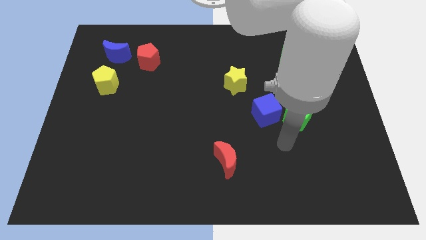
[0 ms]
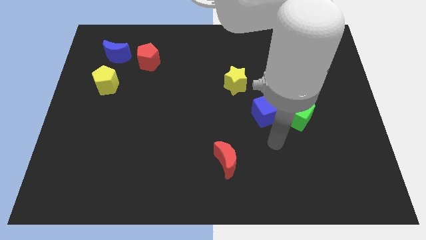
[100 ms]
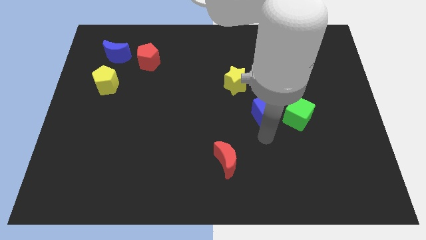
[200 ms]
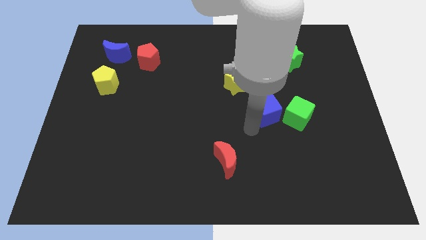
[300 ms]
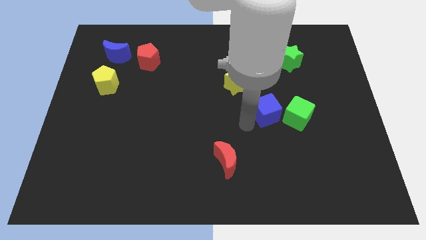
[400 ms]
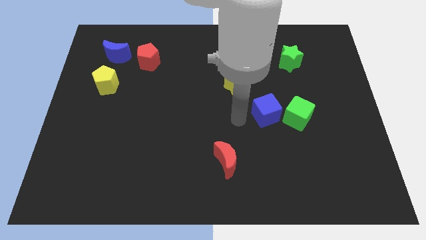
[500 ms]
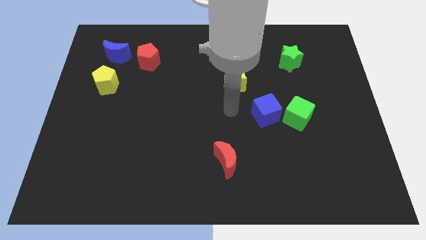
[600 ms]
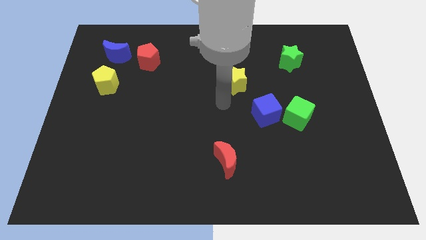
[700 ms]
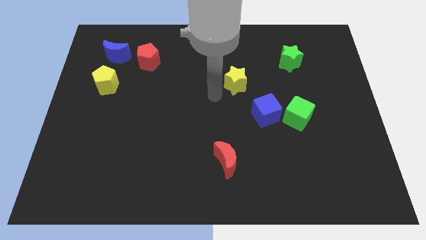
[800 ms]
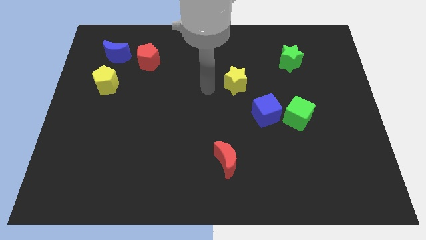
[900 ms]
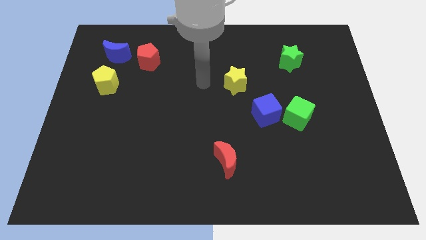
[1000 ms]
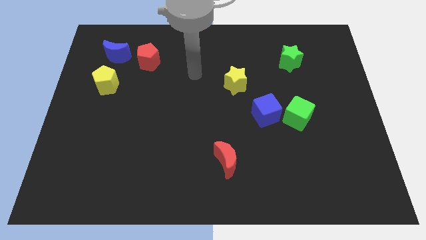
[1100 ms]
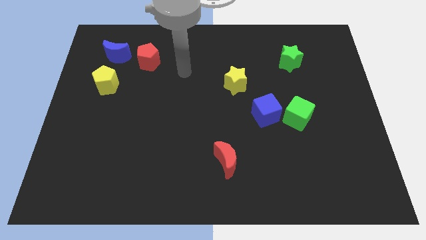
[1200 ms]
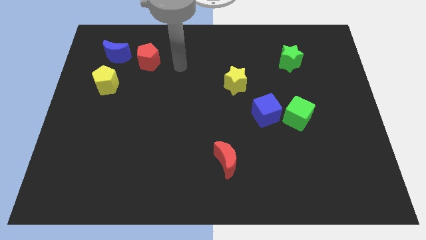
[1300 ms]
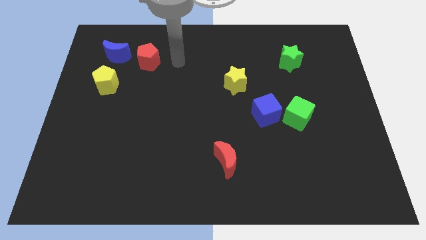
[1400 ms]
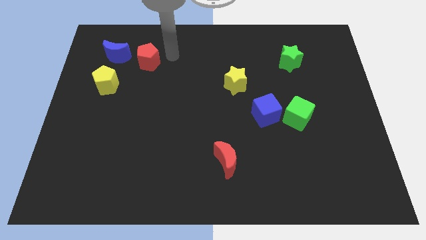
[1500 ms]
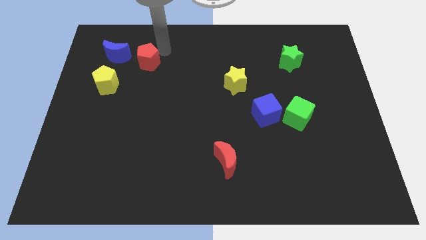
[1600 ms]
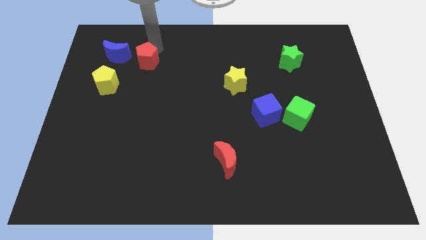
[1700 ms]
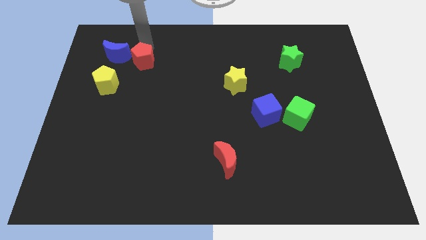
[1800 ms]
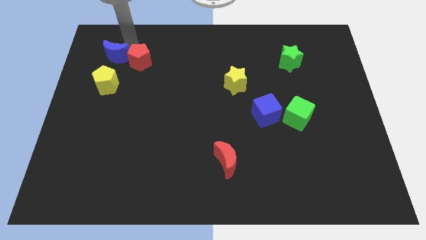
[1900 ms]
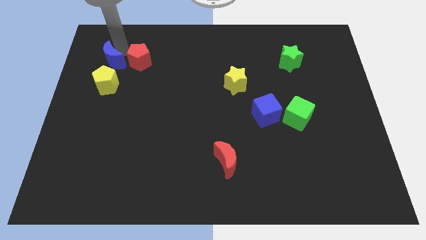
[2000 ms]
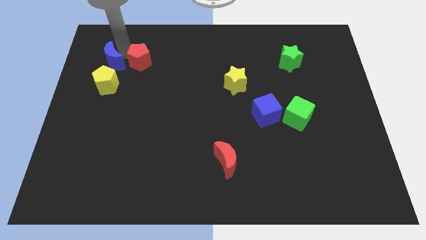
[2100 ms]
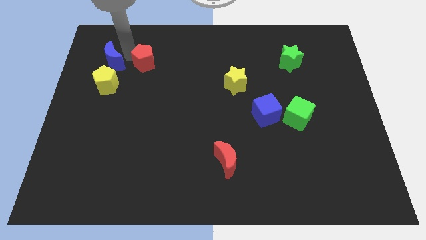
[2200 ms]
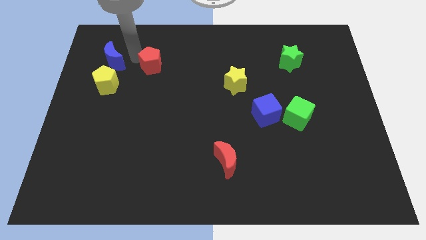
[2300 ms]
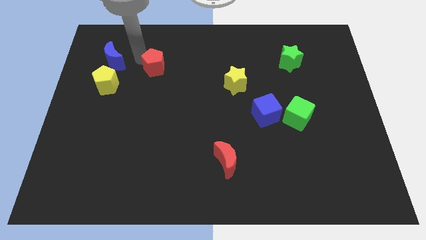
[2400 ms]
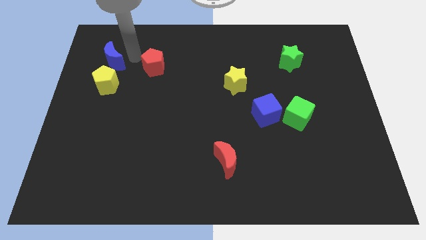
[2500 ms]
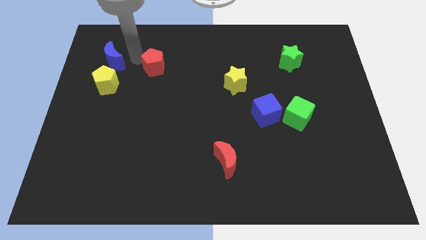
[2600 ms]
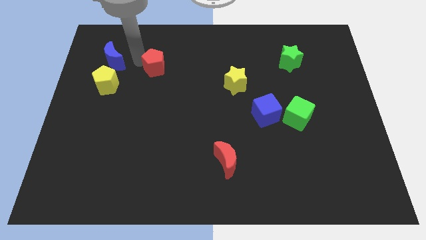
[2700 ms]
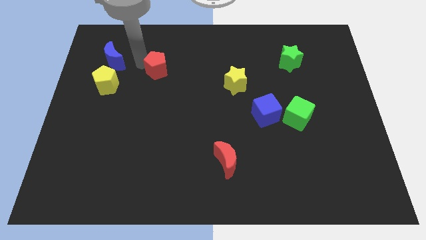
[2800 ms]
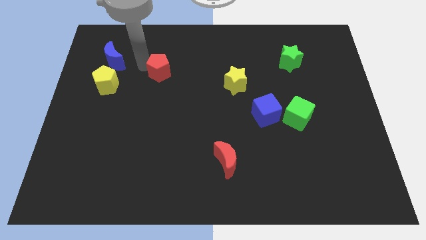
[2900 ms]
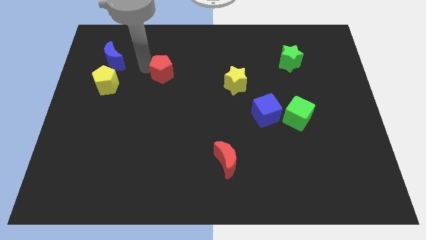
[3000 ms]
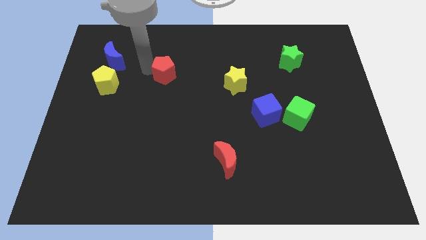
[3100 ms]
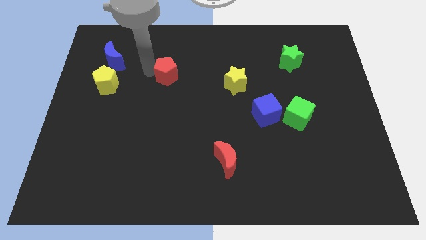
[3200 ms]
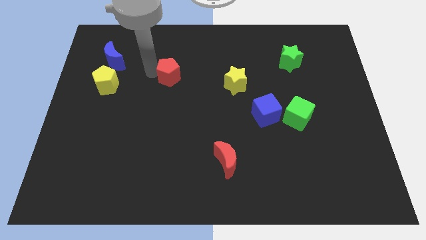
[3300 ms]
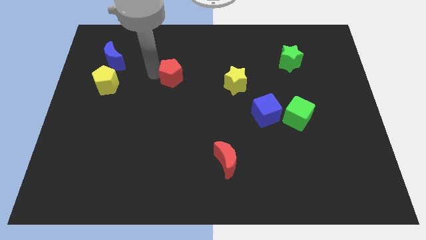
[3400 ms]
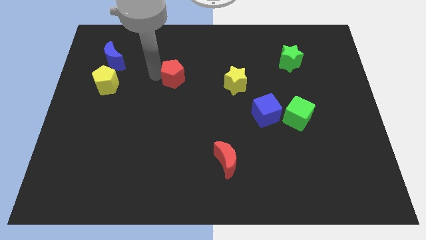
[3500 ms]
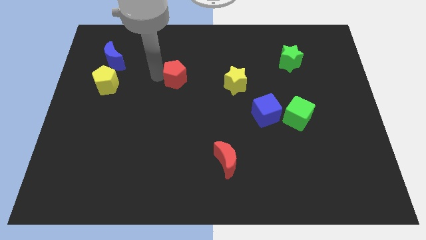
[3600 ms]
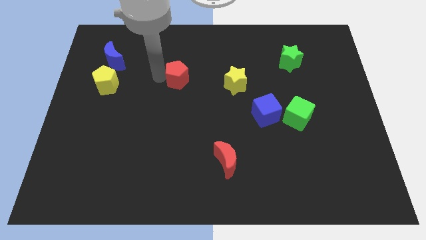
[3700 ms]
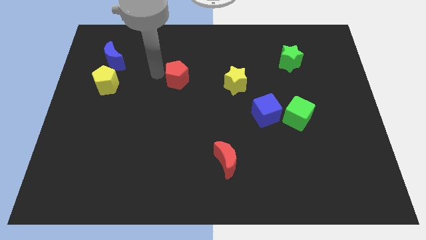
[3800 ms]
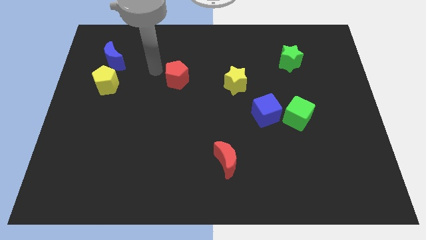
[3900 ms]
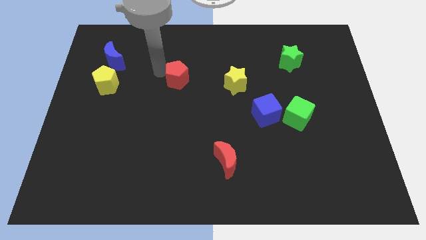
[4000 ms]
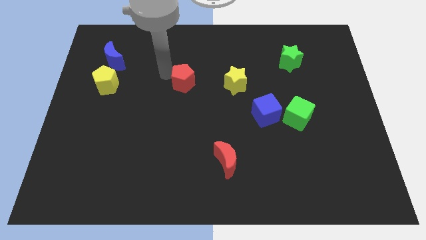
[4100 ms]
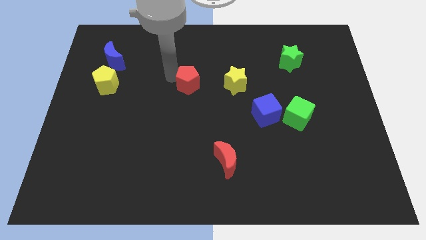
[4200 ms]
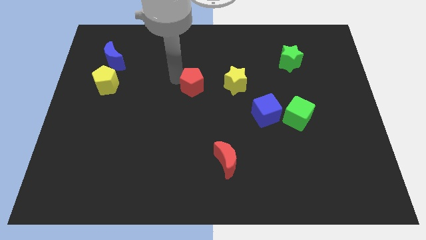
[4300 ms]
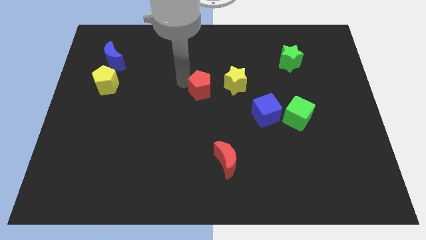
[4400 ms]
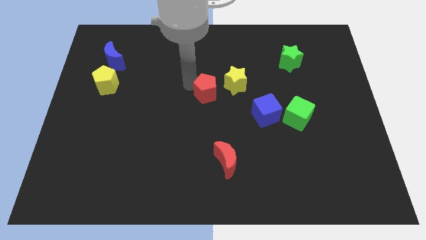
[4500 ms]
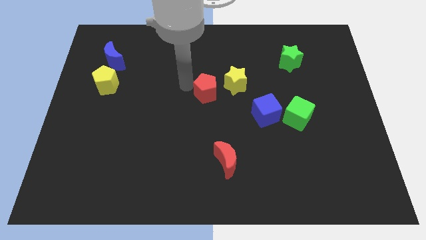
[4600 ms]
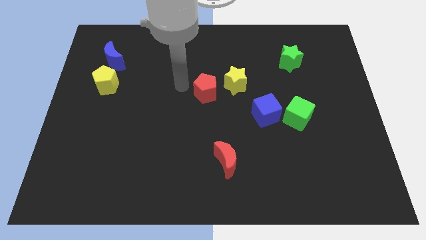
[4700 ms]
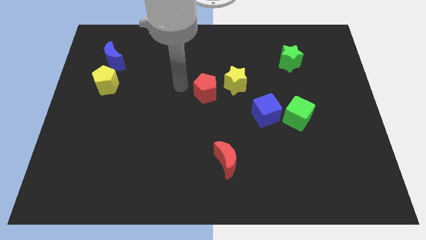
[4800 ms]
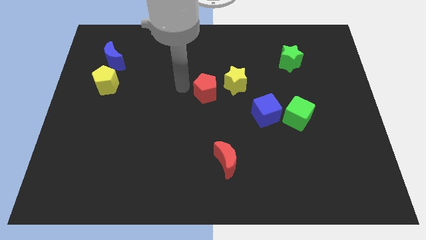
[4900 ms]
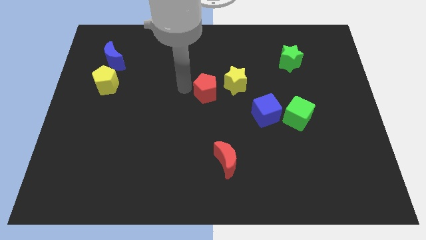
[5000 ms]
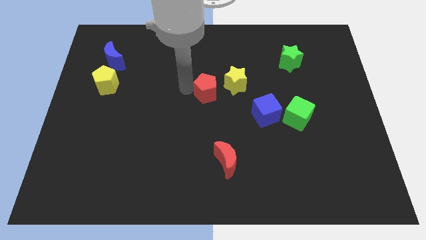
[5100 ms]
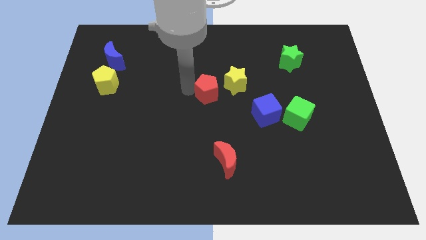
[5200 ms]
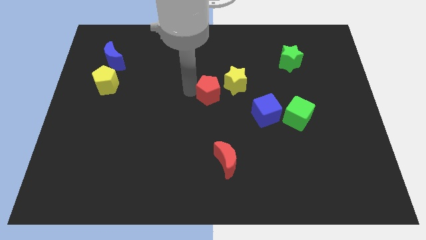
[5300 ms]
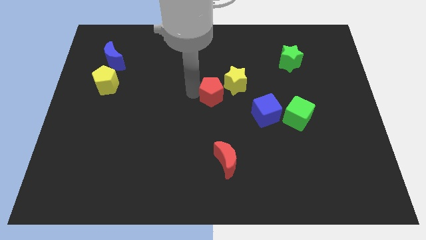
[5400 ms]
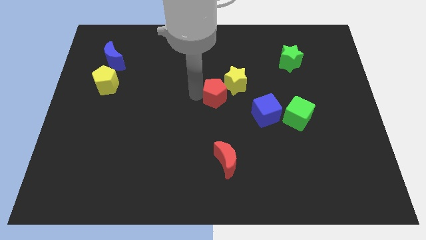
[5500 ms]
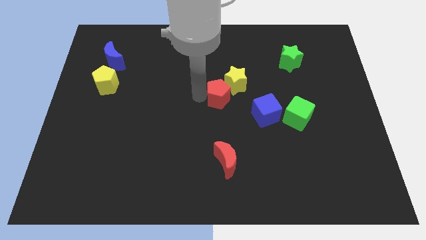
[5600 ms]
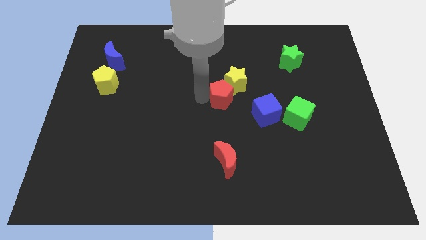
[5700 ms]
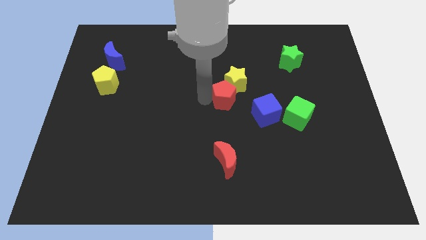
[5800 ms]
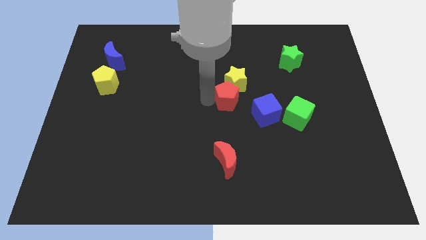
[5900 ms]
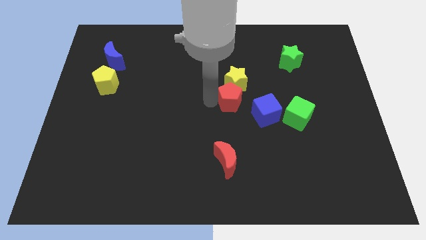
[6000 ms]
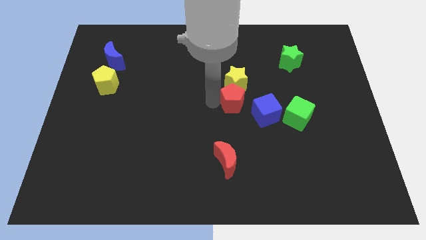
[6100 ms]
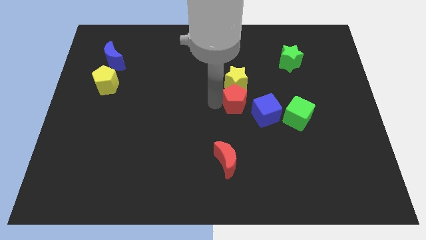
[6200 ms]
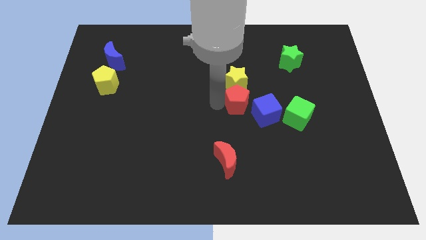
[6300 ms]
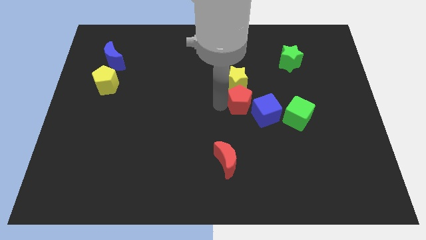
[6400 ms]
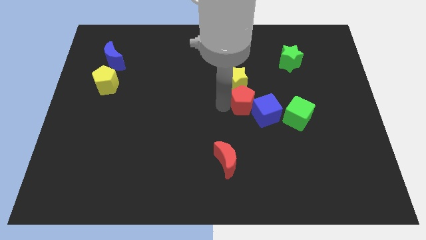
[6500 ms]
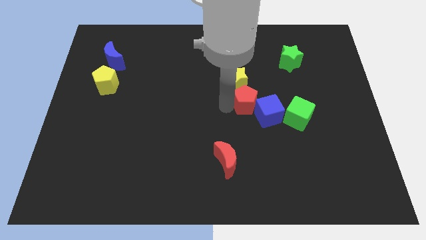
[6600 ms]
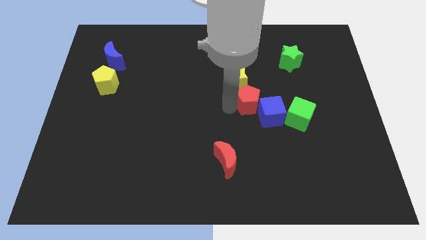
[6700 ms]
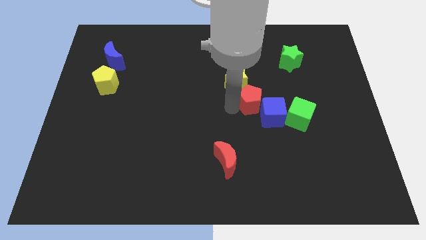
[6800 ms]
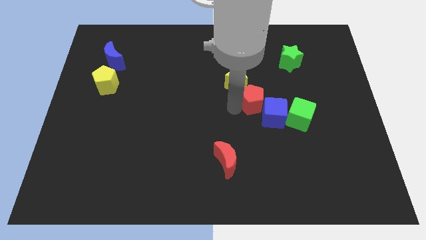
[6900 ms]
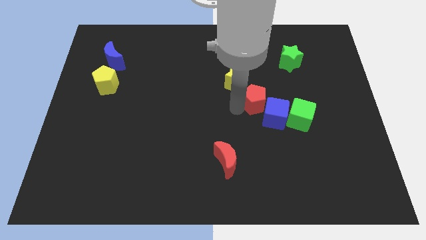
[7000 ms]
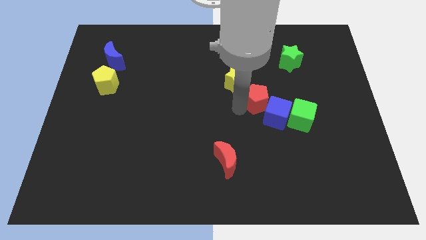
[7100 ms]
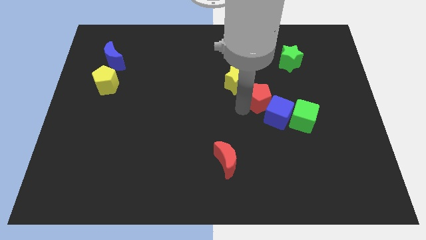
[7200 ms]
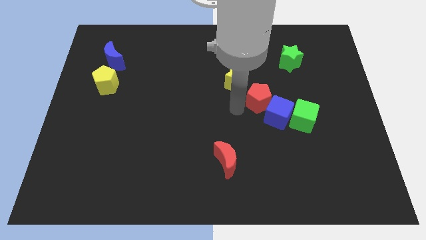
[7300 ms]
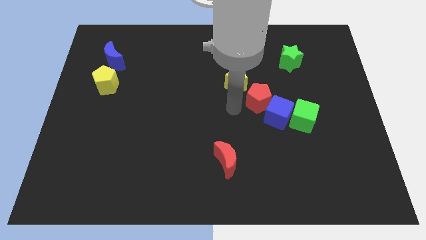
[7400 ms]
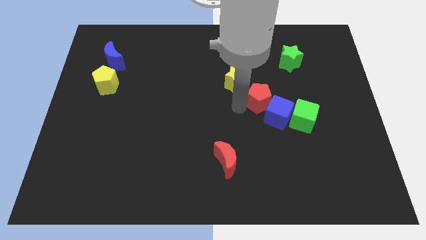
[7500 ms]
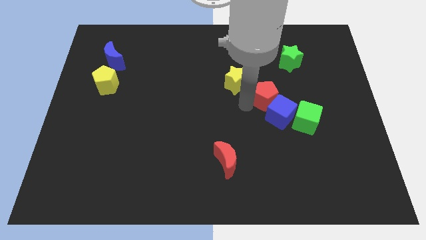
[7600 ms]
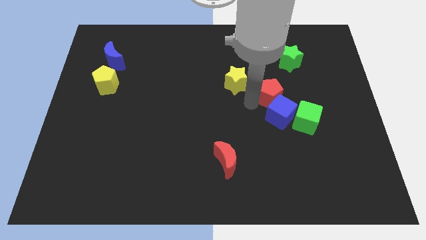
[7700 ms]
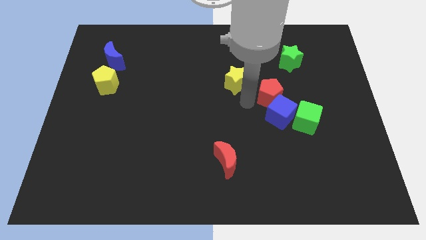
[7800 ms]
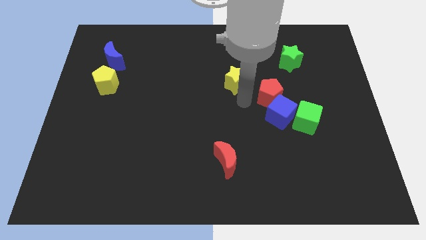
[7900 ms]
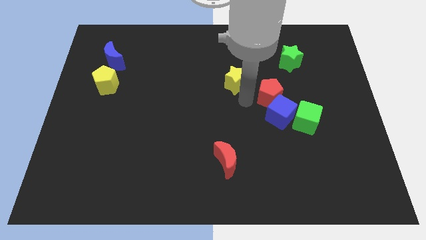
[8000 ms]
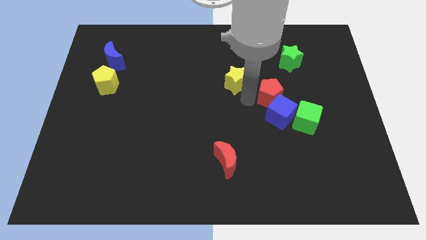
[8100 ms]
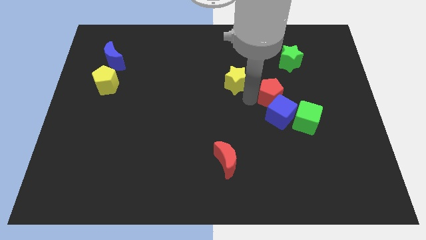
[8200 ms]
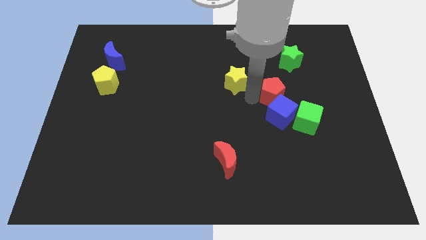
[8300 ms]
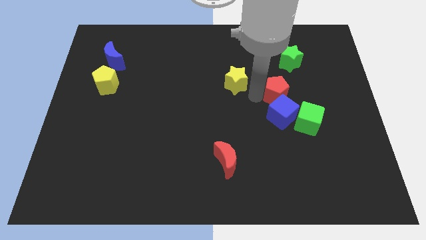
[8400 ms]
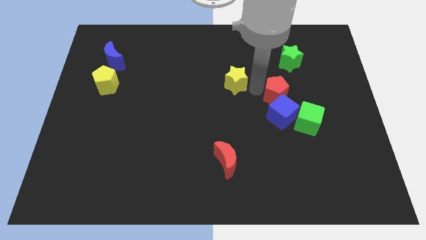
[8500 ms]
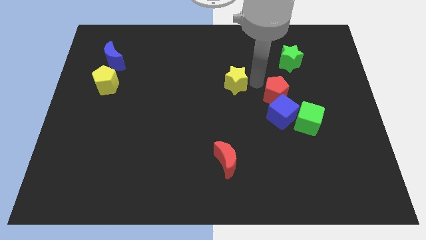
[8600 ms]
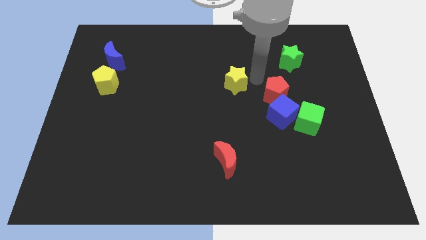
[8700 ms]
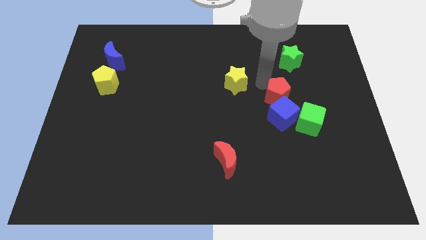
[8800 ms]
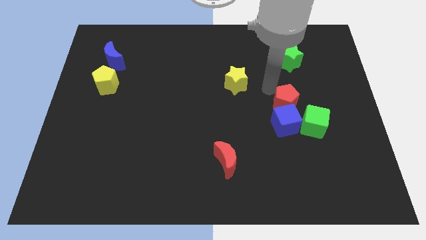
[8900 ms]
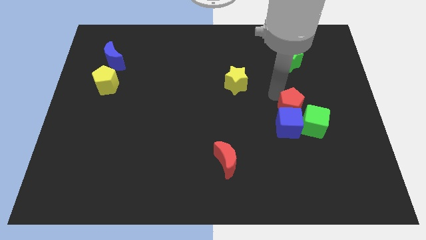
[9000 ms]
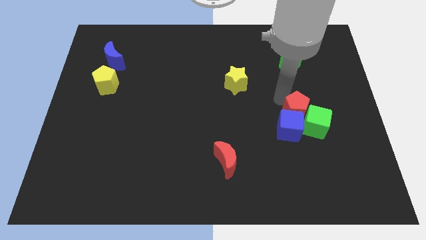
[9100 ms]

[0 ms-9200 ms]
slide the red pentagon close to the green cube
